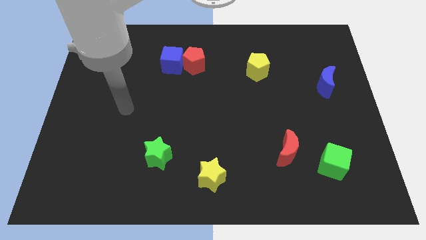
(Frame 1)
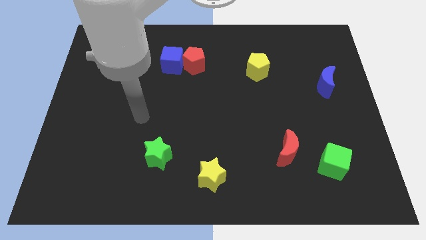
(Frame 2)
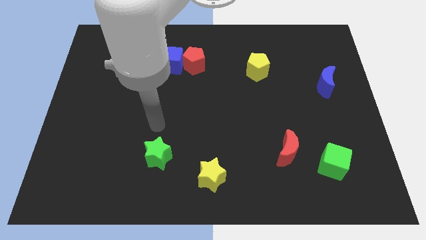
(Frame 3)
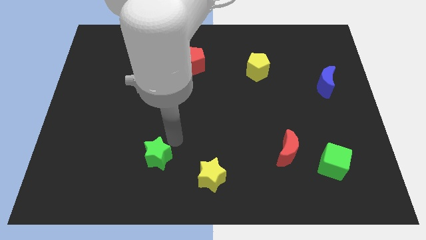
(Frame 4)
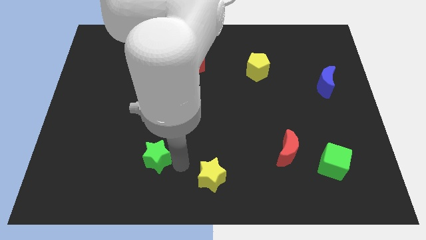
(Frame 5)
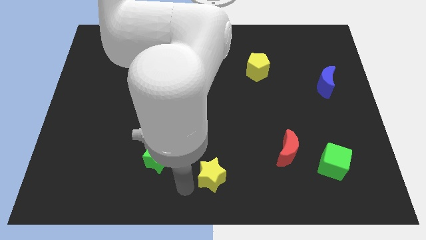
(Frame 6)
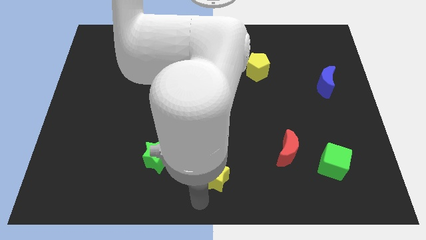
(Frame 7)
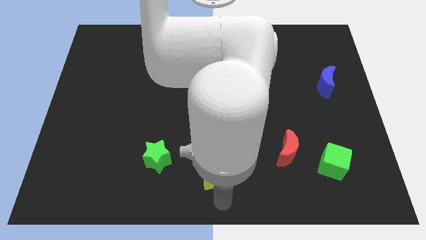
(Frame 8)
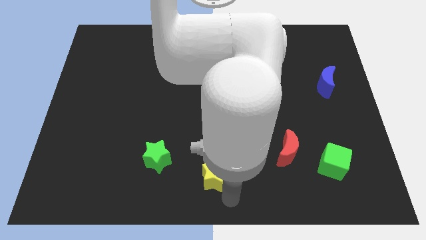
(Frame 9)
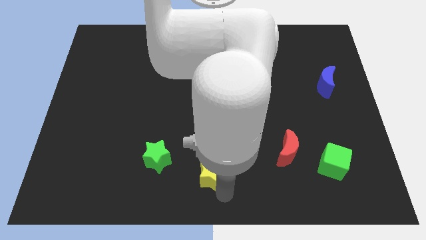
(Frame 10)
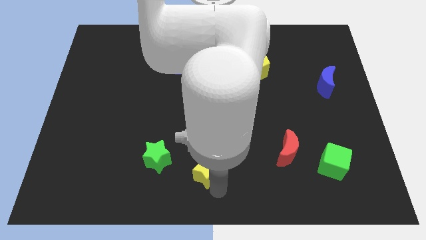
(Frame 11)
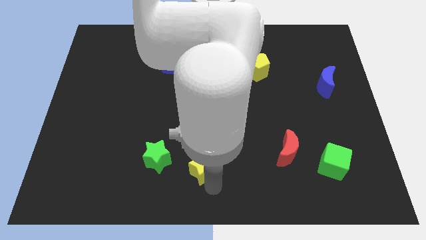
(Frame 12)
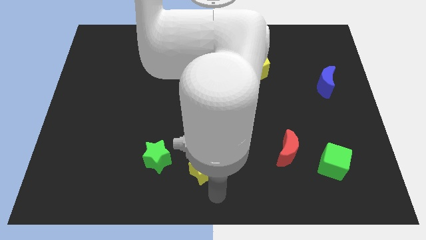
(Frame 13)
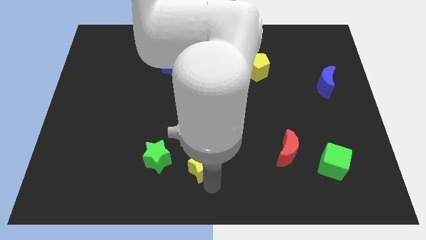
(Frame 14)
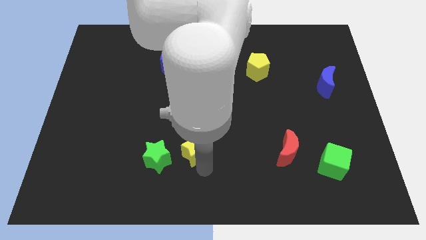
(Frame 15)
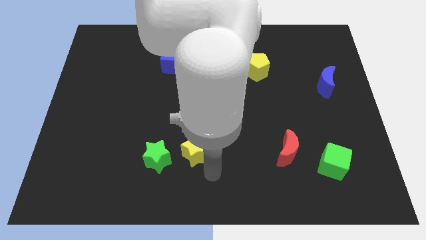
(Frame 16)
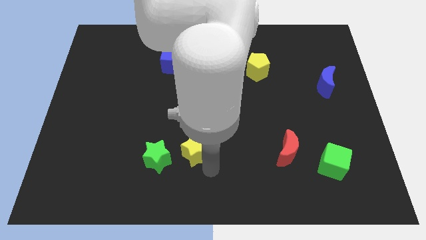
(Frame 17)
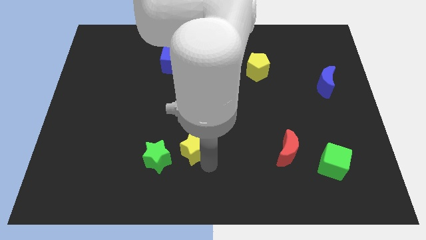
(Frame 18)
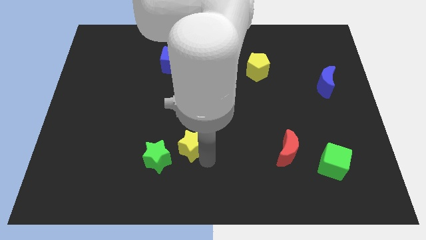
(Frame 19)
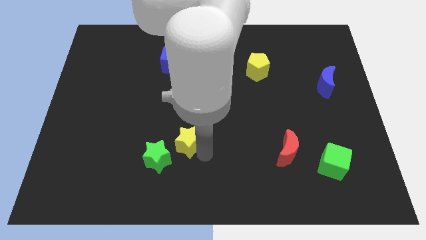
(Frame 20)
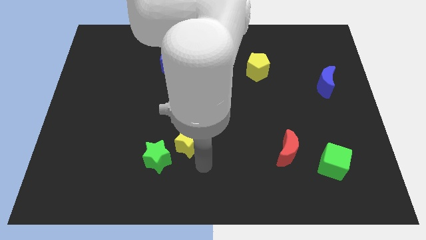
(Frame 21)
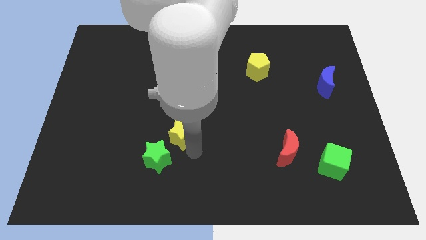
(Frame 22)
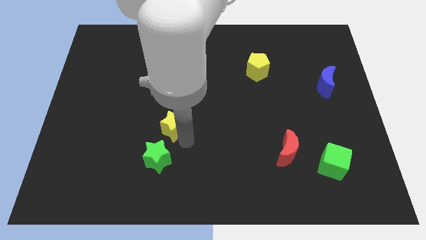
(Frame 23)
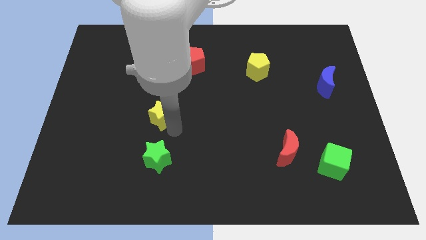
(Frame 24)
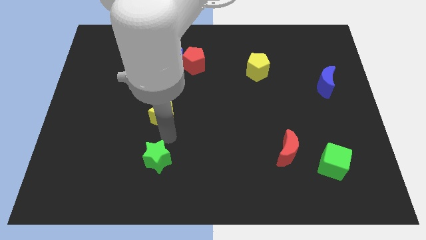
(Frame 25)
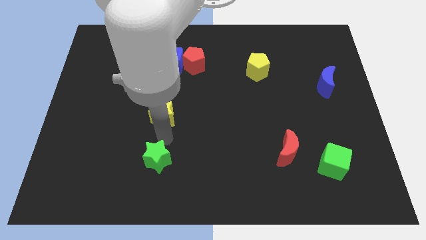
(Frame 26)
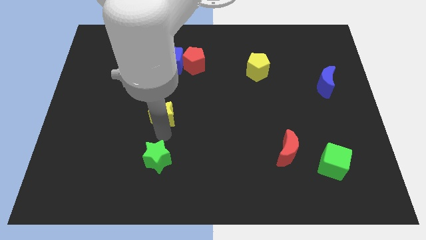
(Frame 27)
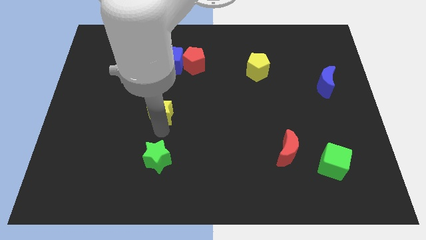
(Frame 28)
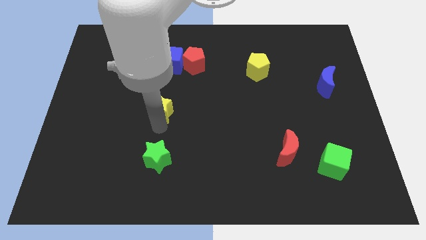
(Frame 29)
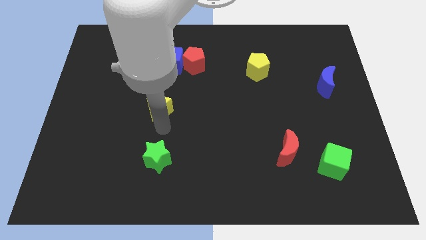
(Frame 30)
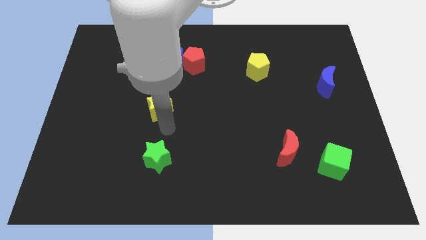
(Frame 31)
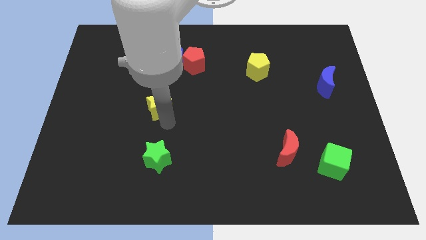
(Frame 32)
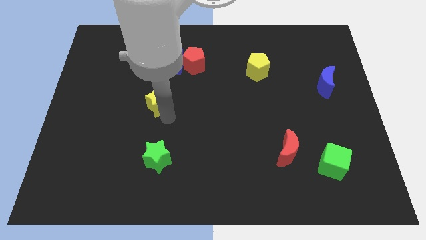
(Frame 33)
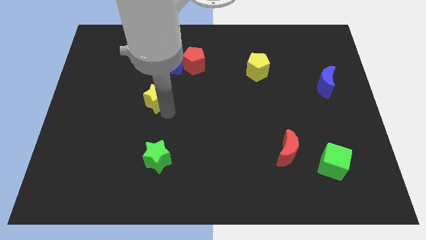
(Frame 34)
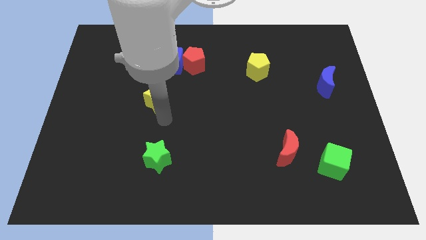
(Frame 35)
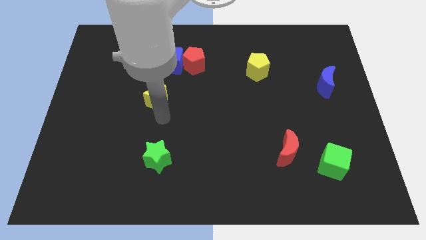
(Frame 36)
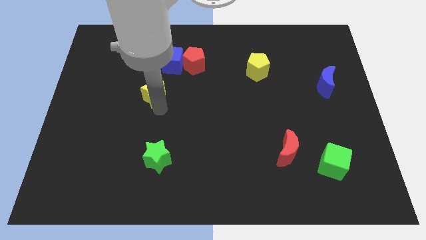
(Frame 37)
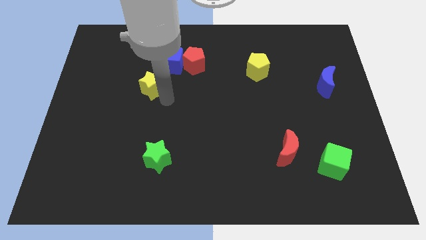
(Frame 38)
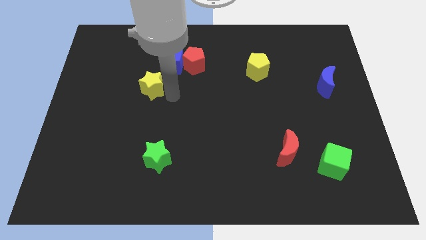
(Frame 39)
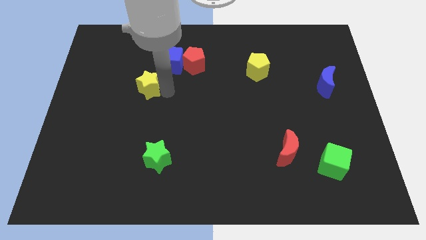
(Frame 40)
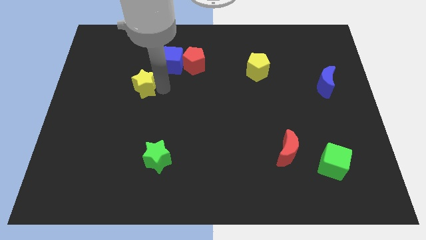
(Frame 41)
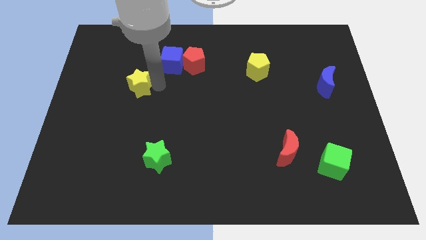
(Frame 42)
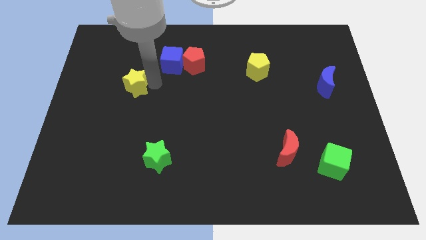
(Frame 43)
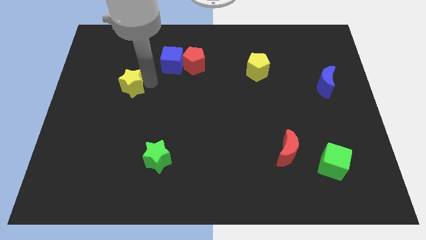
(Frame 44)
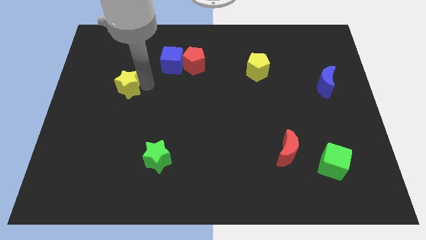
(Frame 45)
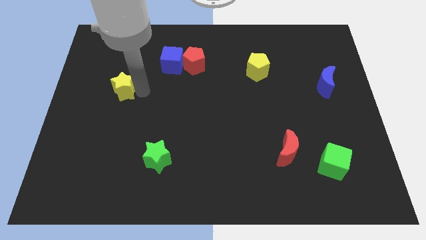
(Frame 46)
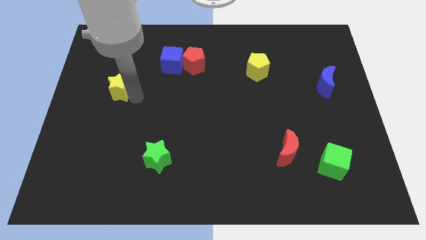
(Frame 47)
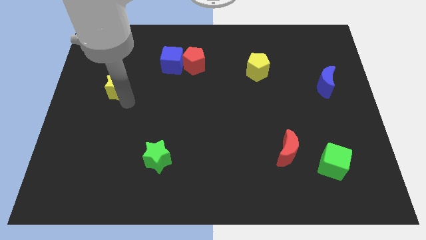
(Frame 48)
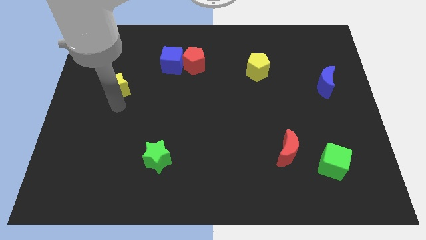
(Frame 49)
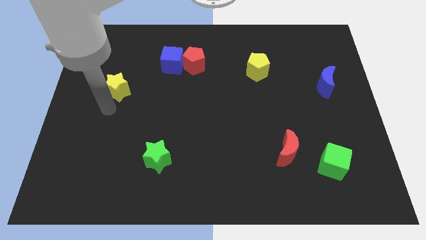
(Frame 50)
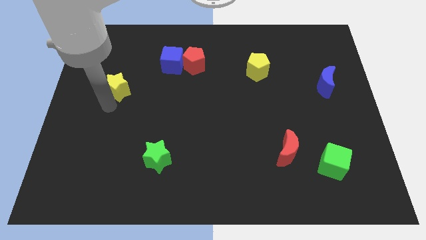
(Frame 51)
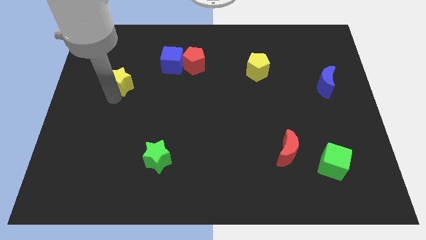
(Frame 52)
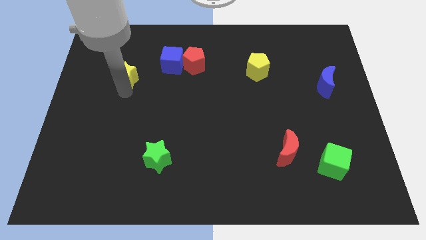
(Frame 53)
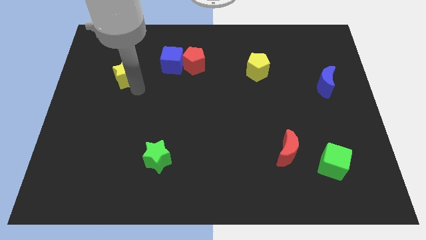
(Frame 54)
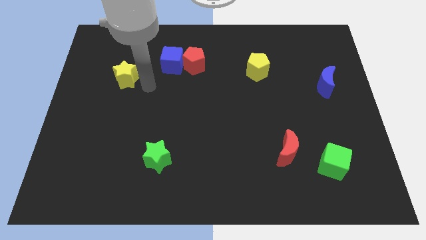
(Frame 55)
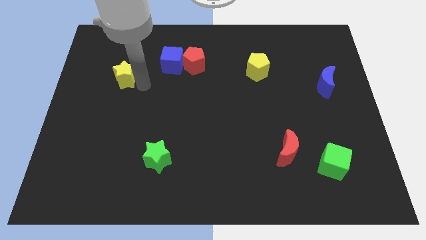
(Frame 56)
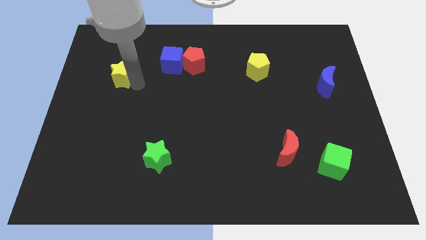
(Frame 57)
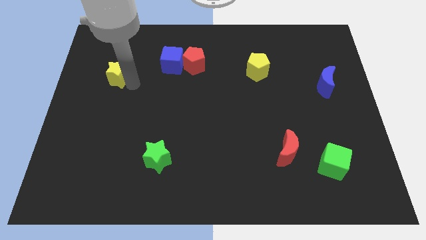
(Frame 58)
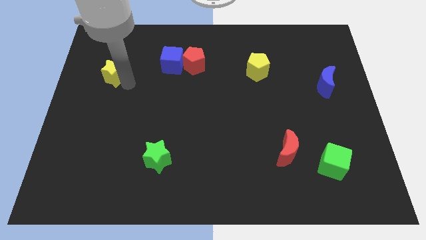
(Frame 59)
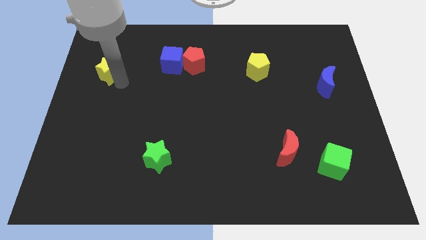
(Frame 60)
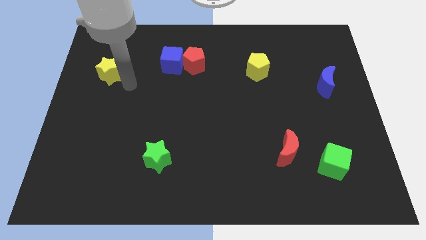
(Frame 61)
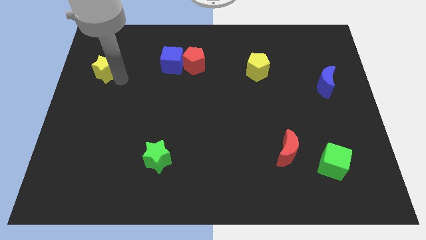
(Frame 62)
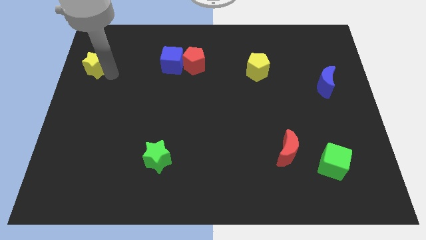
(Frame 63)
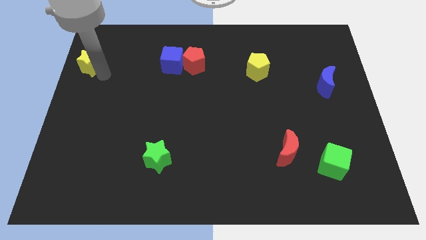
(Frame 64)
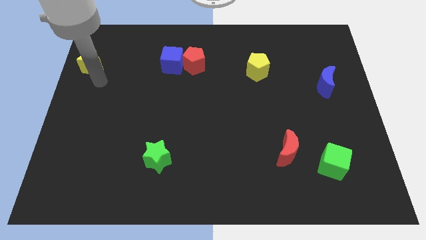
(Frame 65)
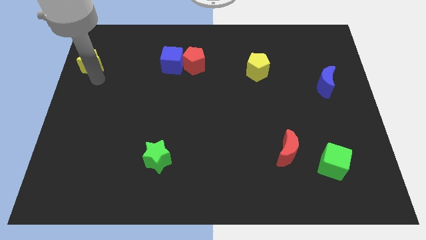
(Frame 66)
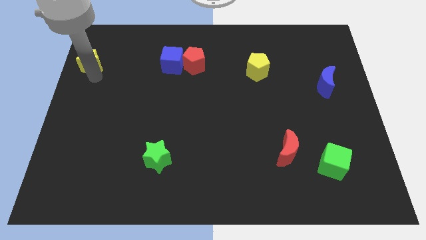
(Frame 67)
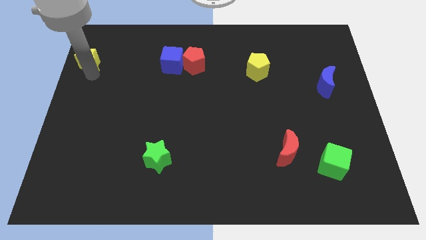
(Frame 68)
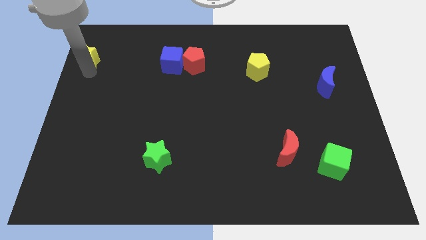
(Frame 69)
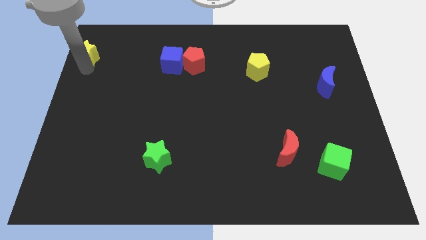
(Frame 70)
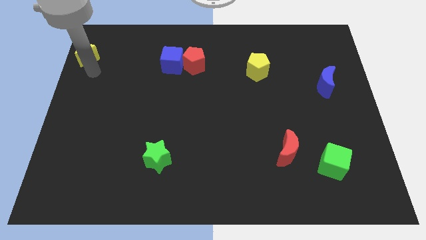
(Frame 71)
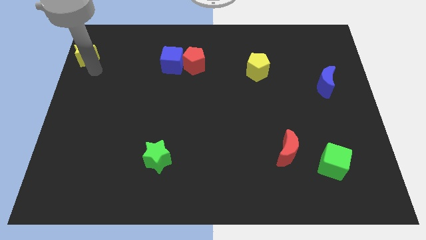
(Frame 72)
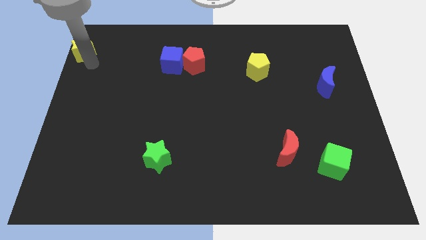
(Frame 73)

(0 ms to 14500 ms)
move the yellow star to the upper left corner

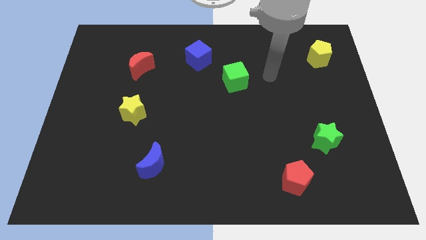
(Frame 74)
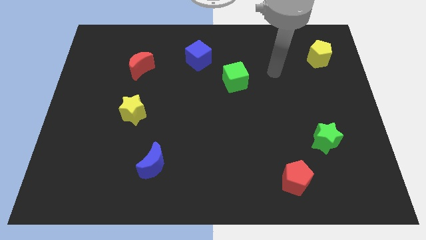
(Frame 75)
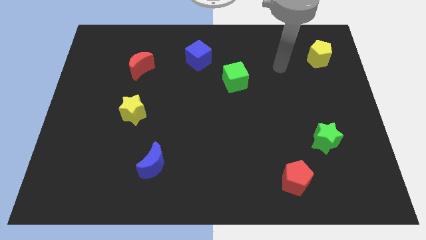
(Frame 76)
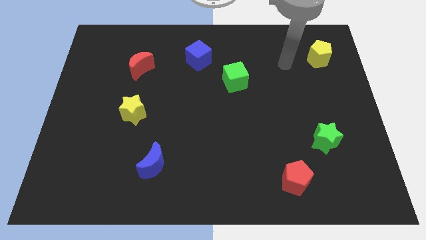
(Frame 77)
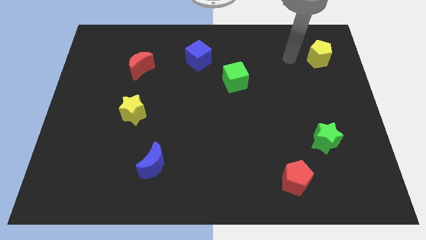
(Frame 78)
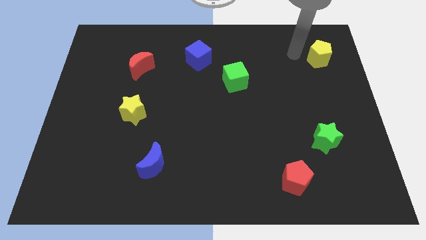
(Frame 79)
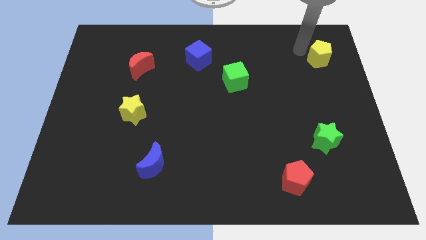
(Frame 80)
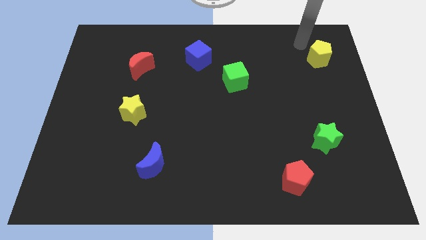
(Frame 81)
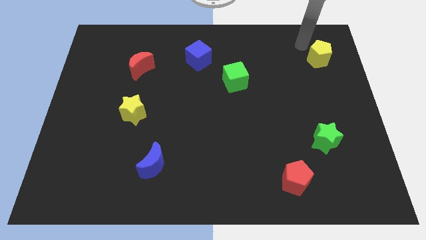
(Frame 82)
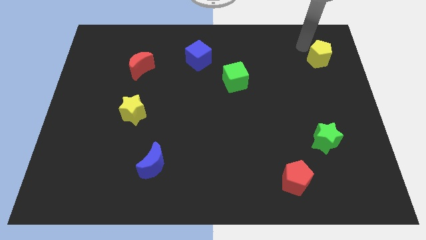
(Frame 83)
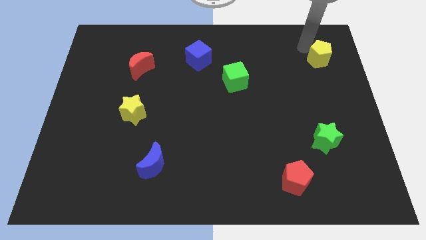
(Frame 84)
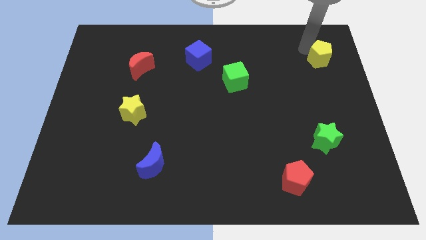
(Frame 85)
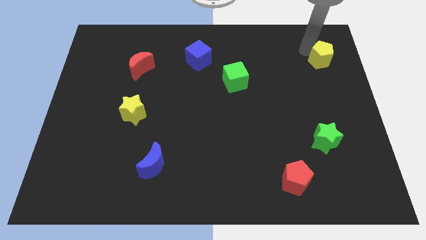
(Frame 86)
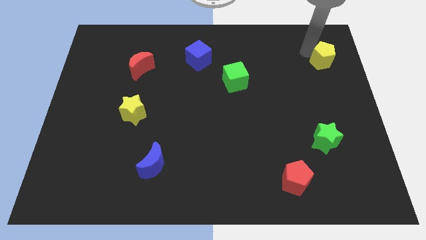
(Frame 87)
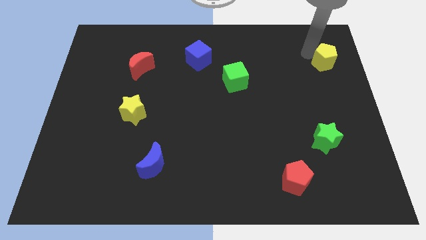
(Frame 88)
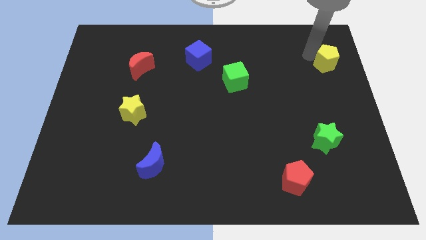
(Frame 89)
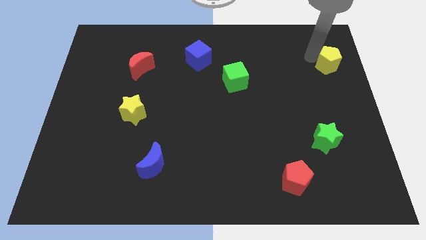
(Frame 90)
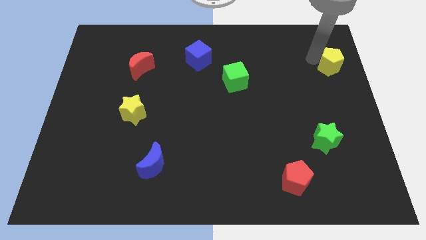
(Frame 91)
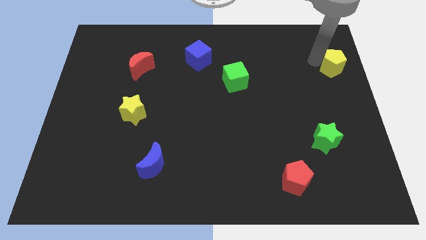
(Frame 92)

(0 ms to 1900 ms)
push the yellow pentagon to the center right
